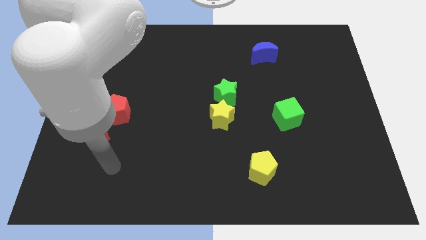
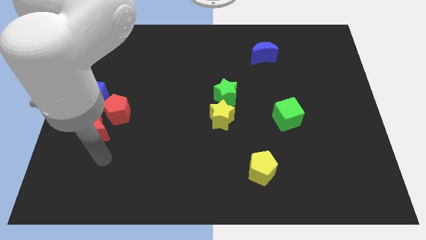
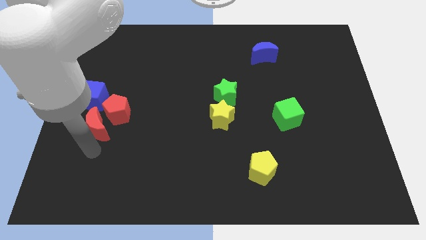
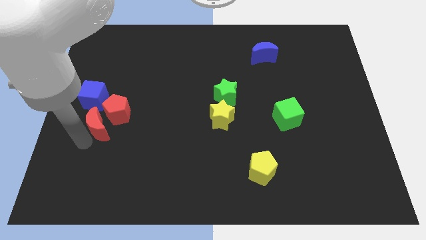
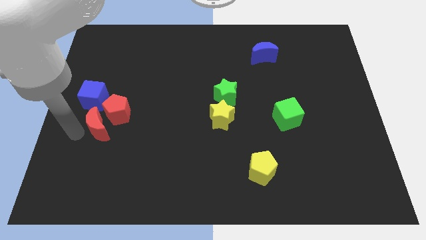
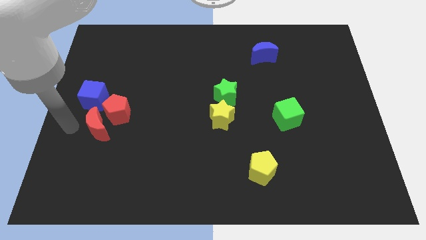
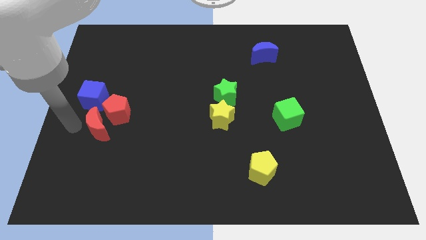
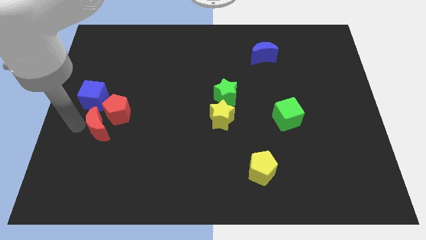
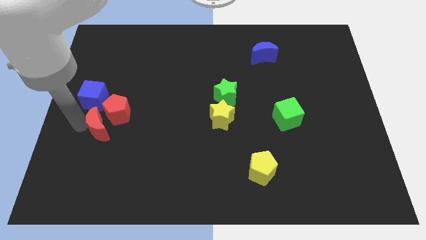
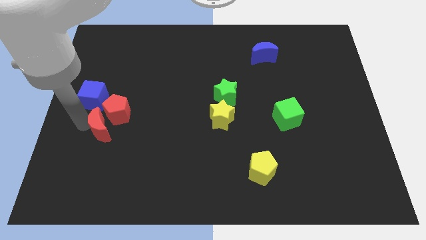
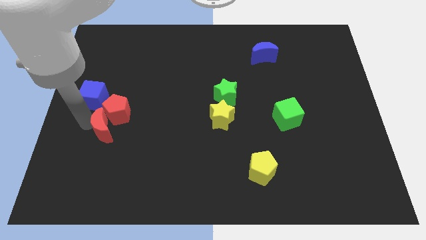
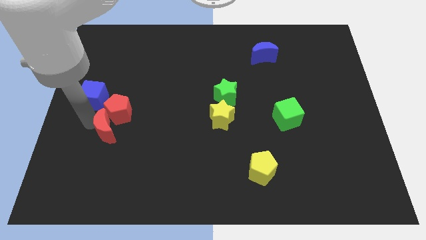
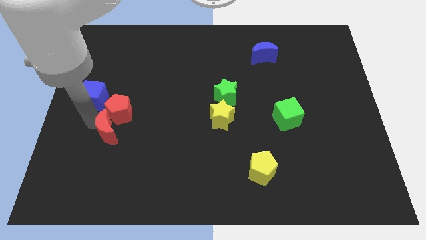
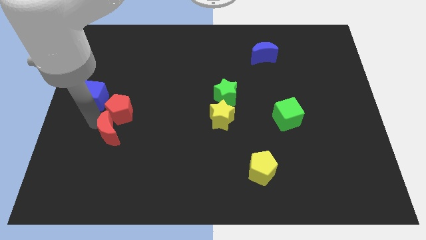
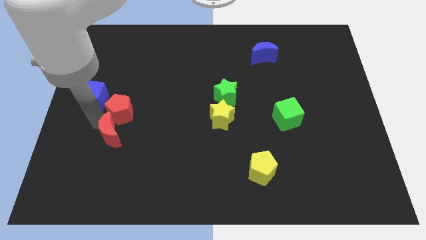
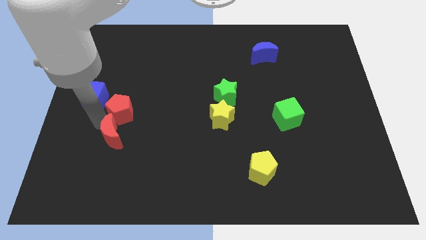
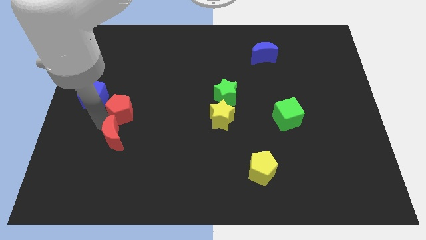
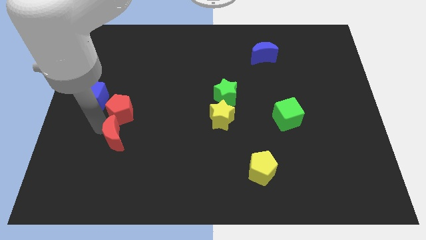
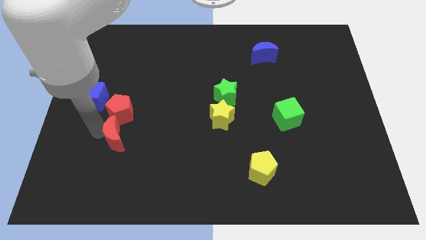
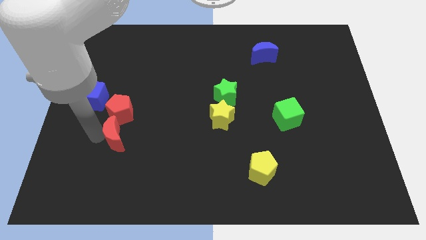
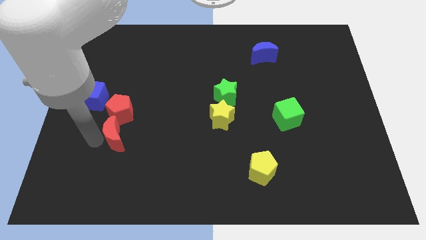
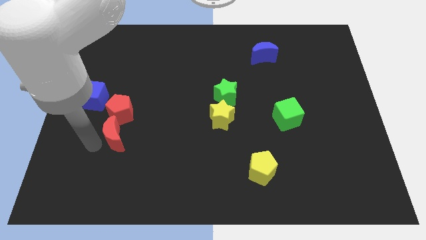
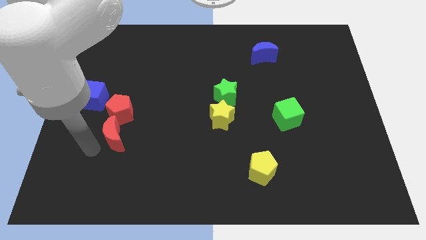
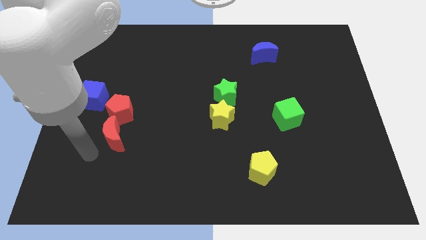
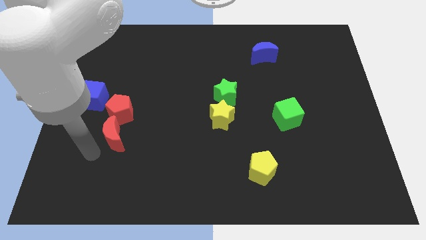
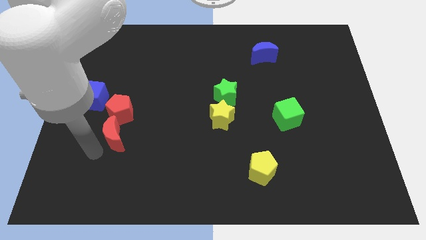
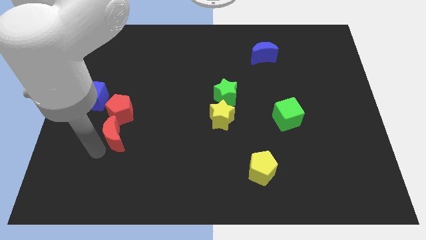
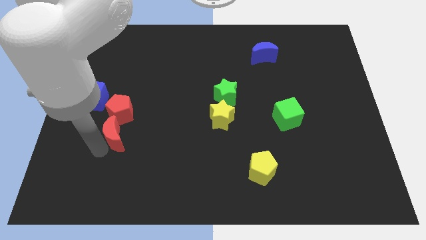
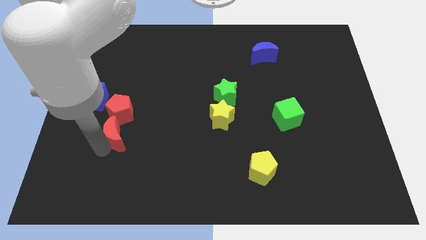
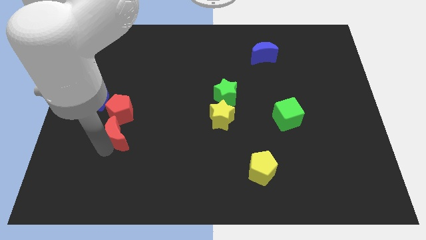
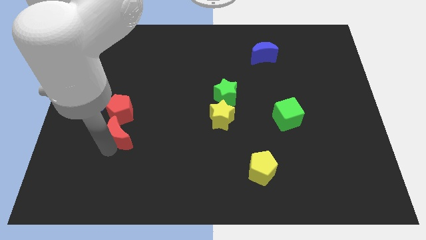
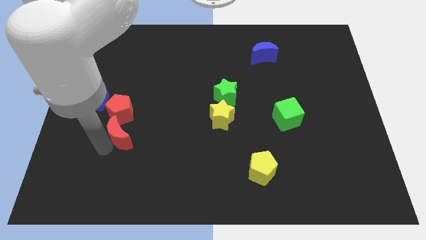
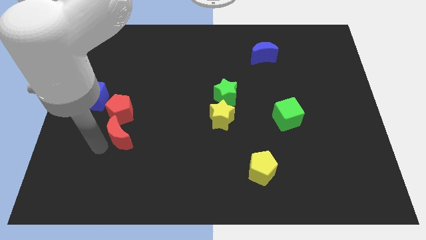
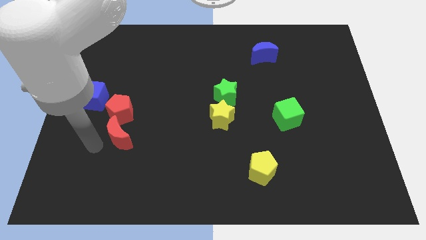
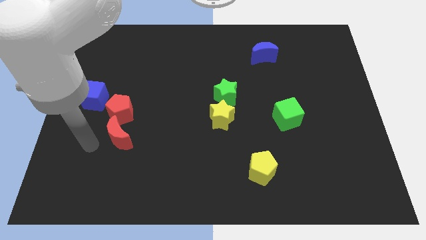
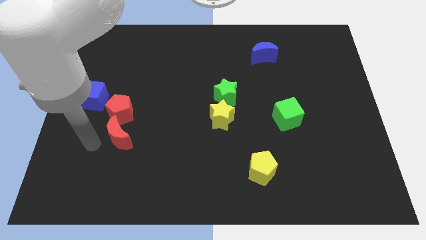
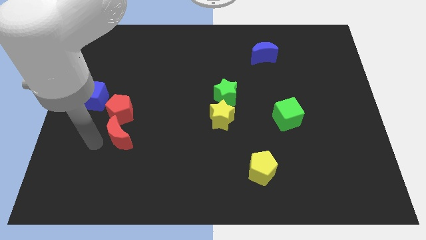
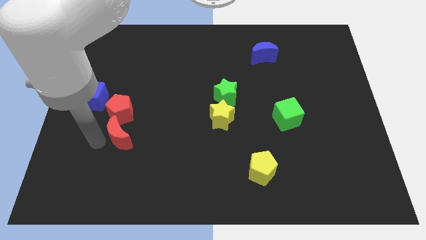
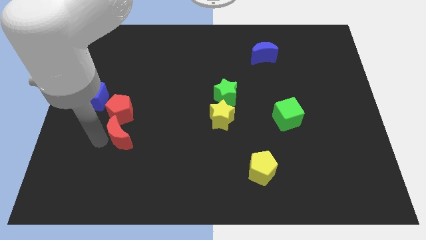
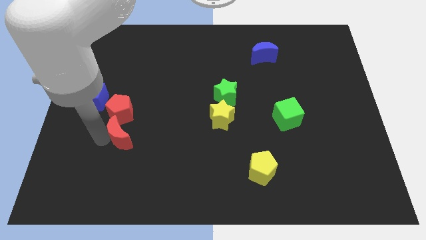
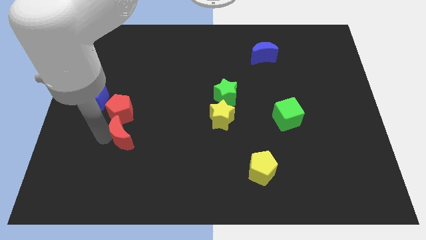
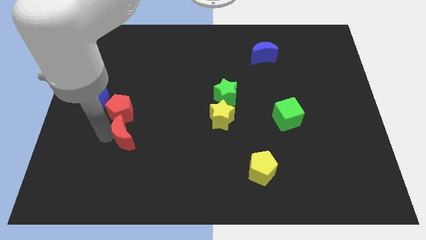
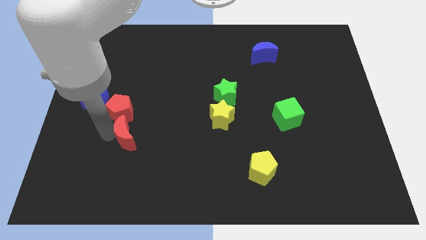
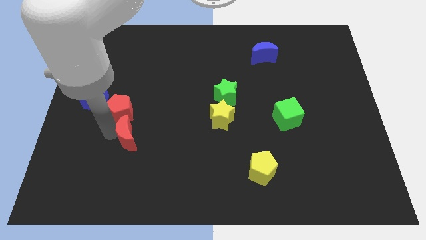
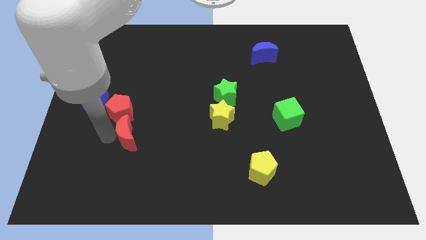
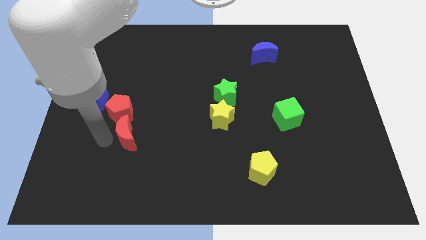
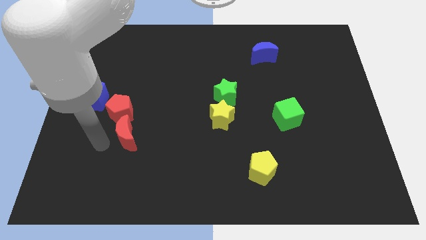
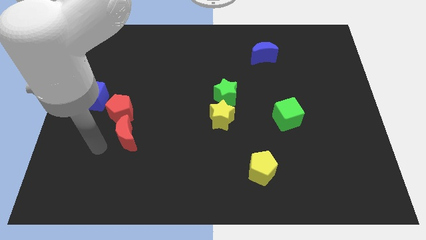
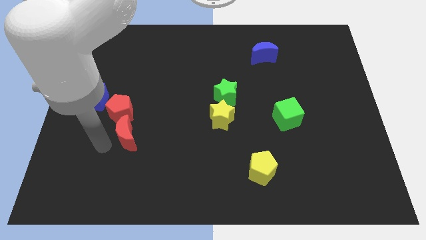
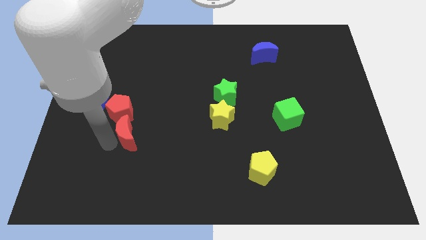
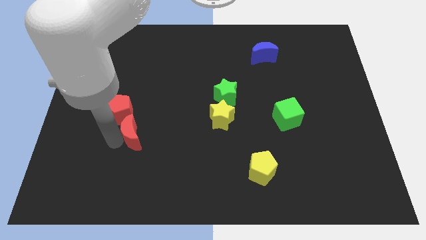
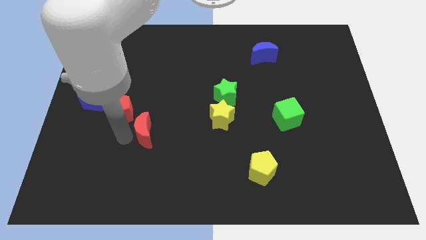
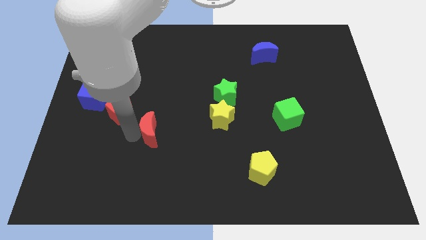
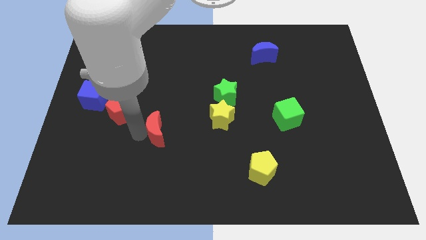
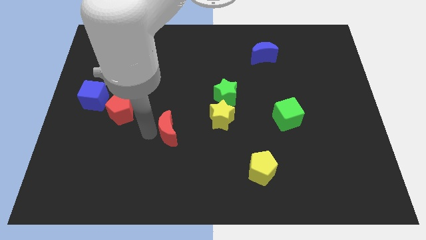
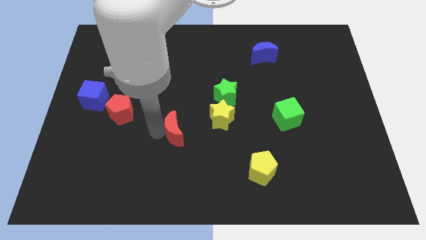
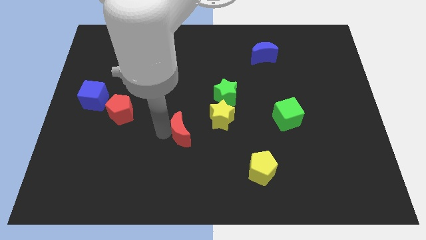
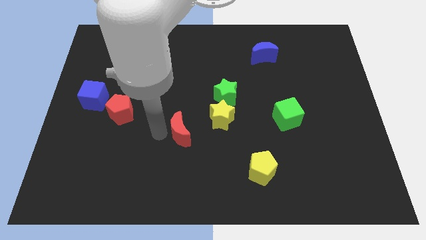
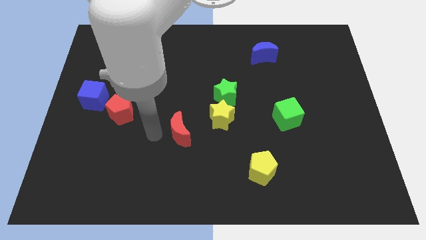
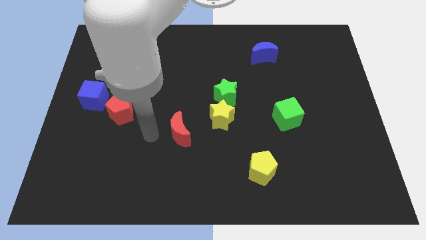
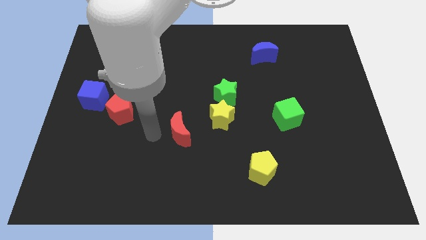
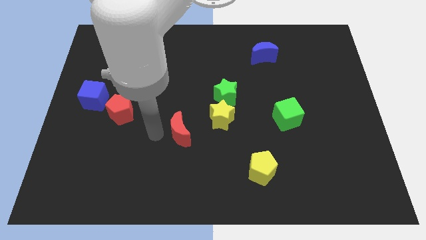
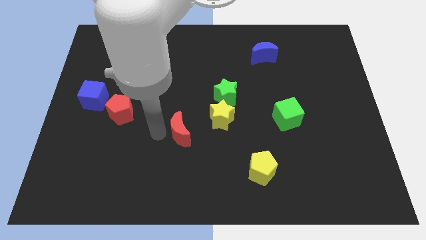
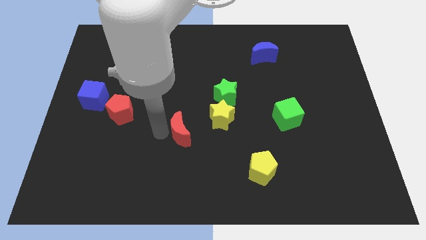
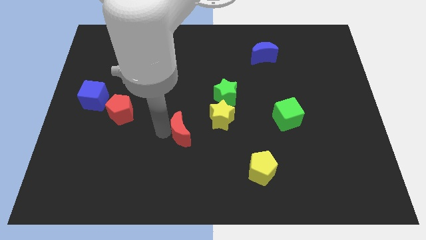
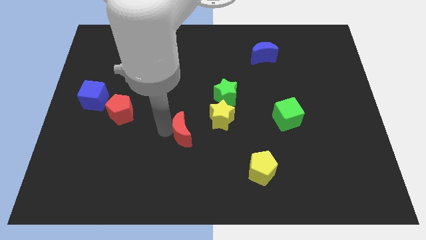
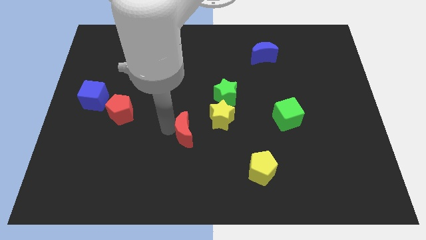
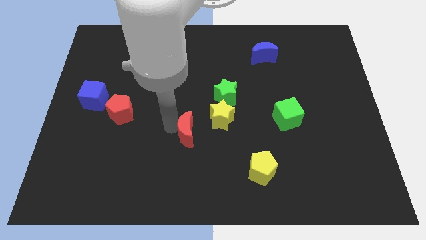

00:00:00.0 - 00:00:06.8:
move the red moon right

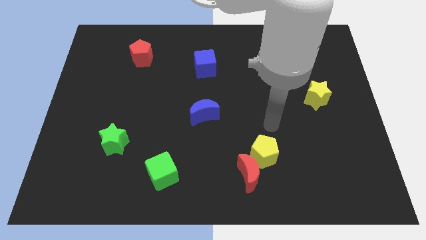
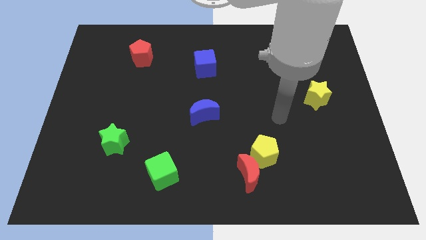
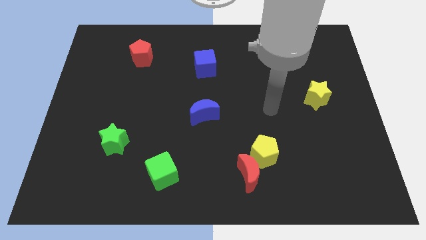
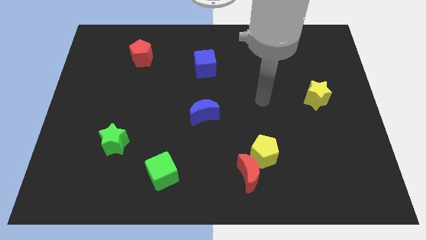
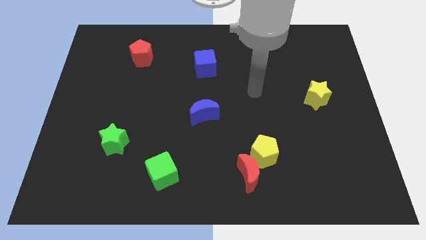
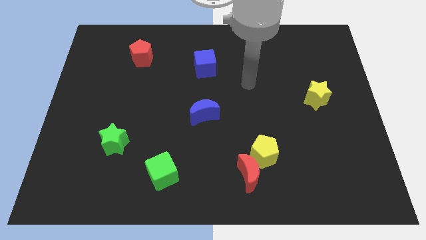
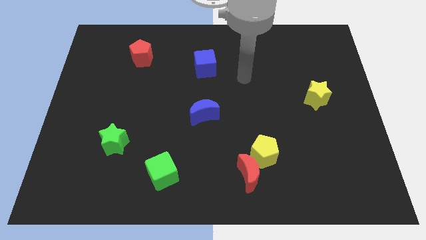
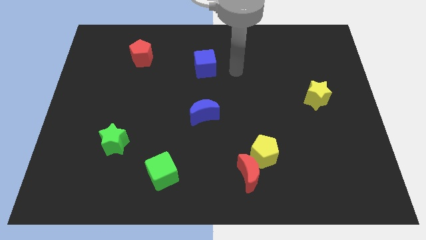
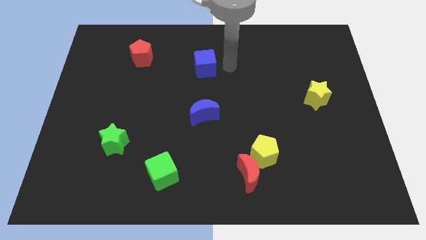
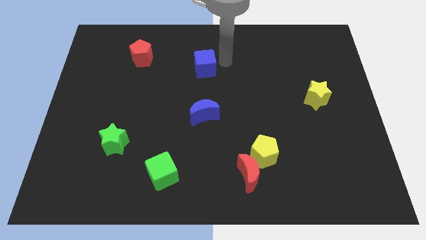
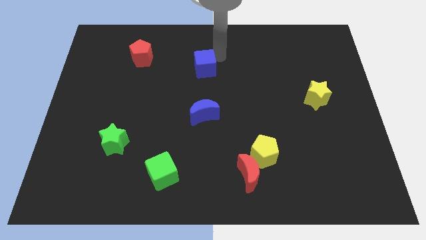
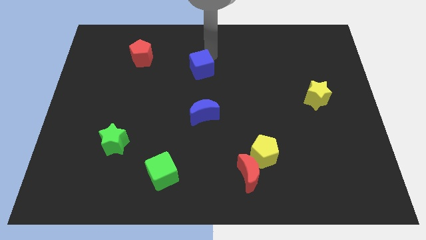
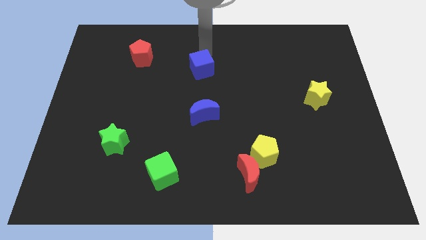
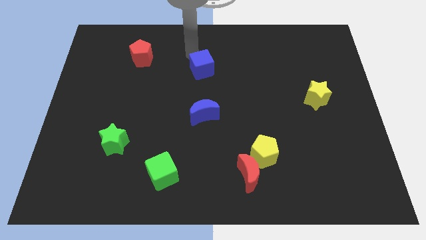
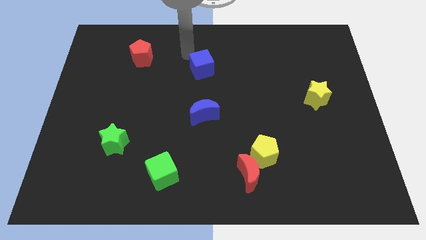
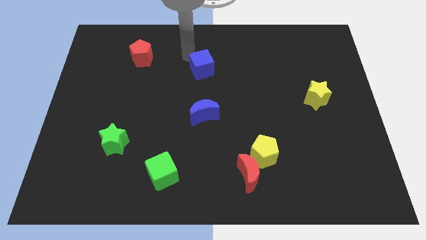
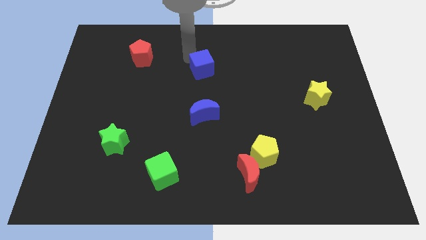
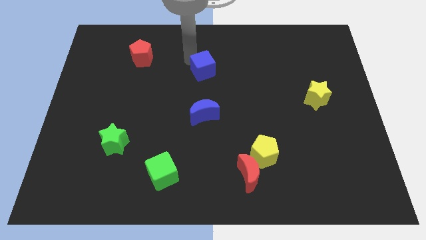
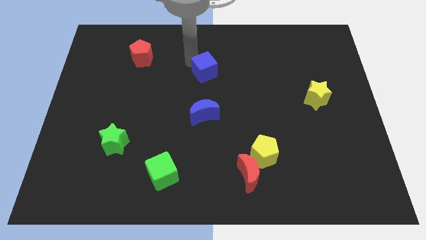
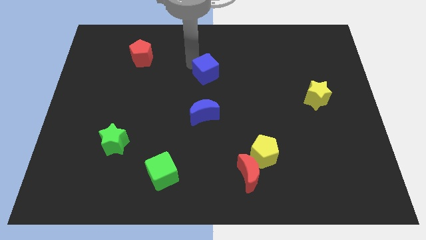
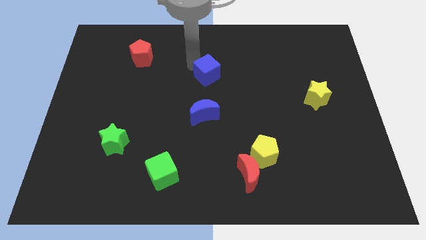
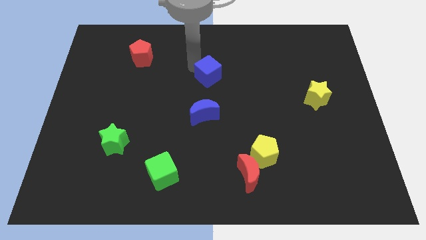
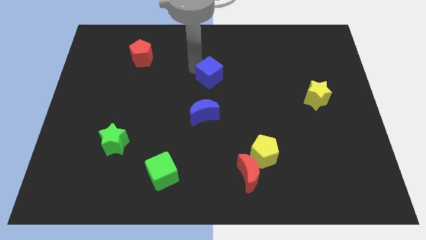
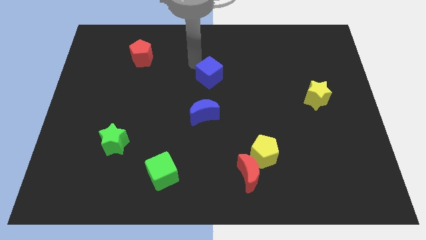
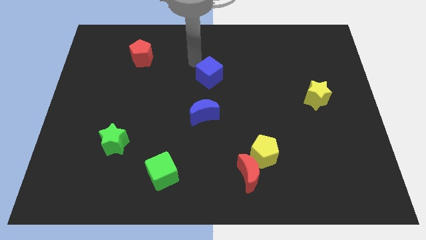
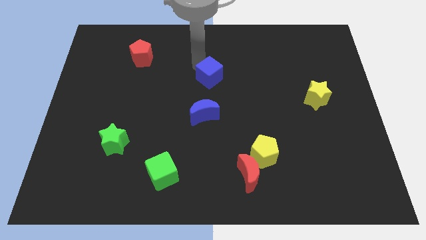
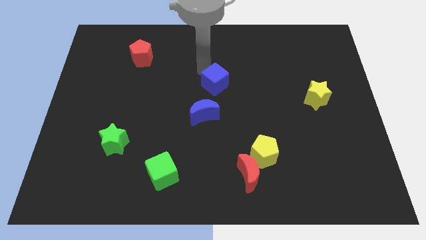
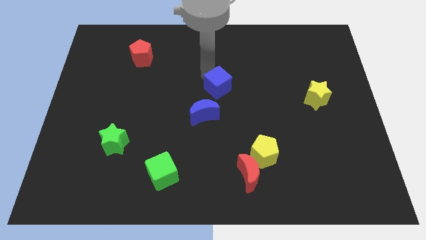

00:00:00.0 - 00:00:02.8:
slightly slide the blue cube downwards and right
